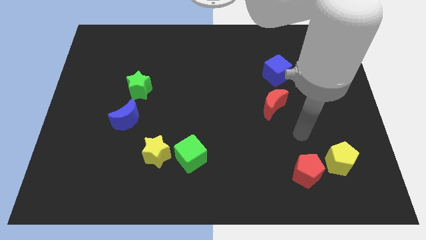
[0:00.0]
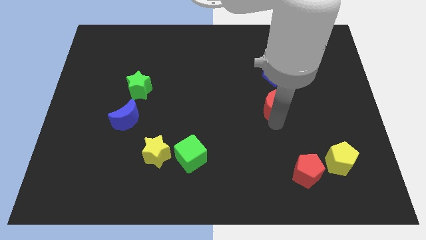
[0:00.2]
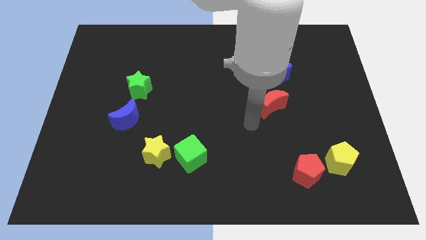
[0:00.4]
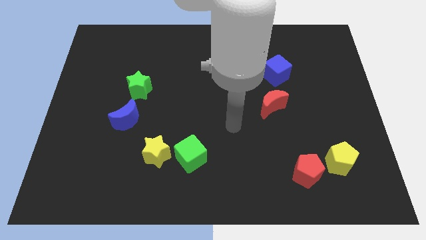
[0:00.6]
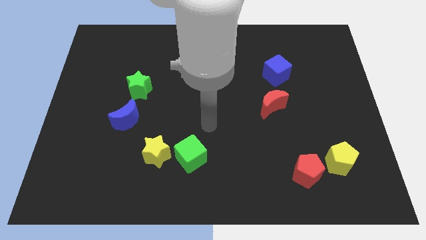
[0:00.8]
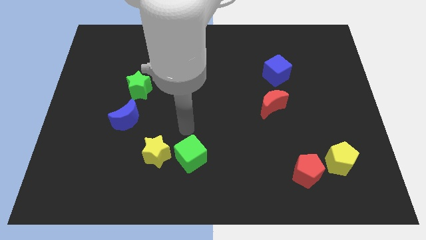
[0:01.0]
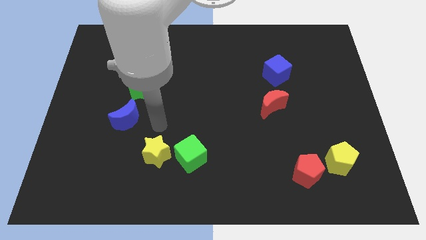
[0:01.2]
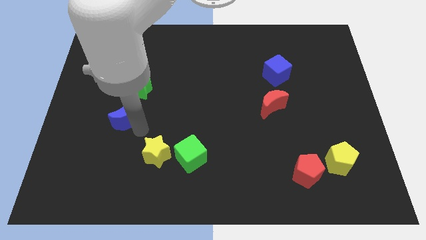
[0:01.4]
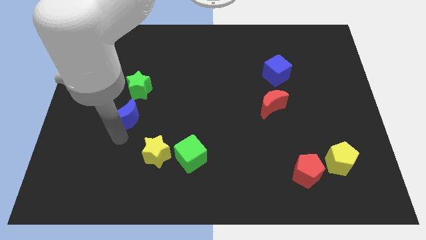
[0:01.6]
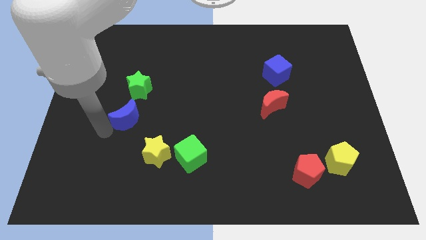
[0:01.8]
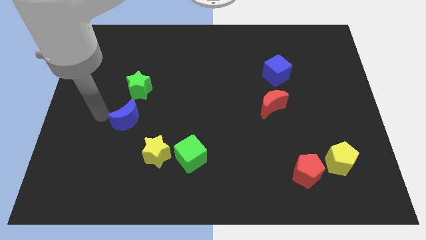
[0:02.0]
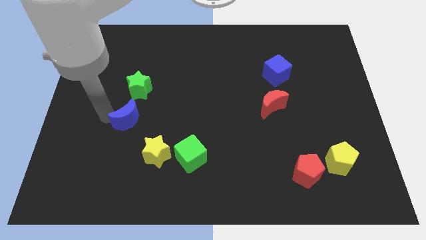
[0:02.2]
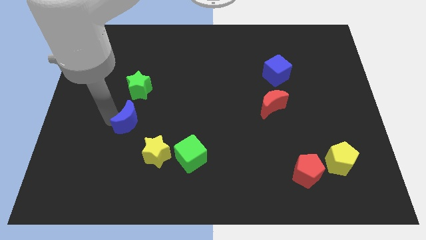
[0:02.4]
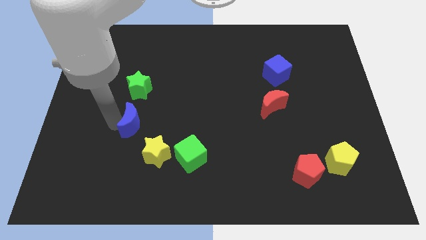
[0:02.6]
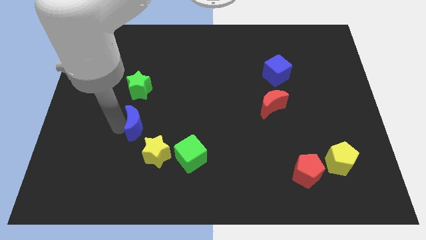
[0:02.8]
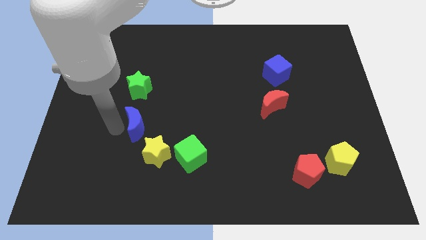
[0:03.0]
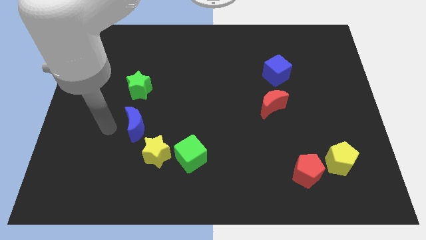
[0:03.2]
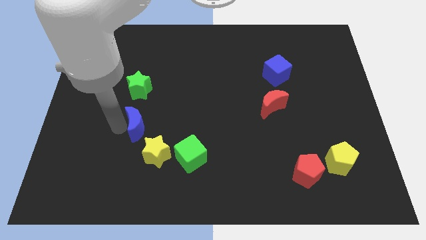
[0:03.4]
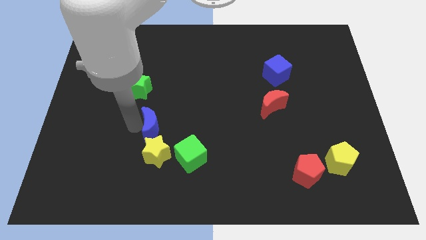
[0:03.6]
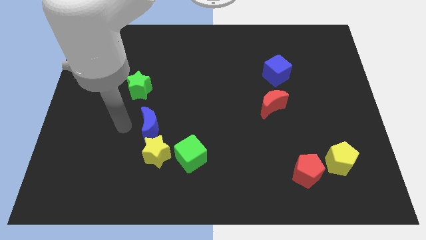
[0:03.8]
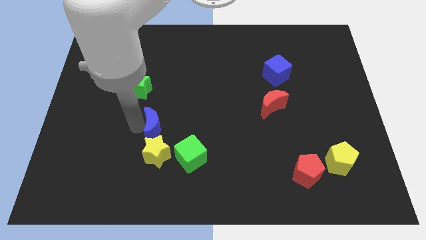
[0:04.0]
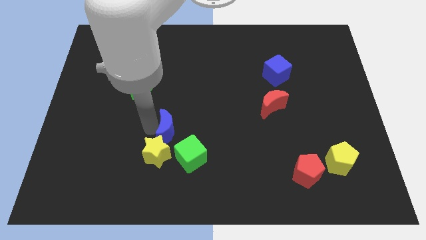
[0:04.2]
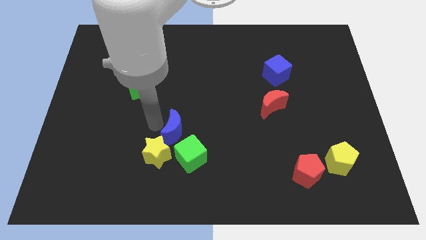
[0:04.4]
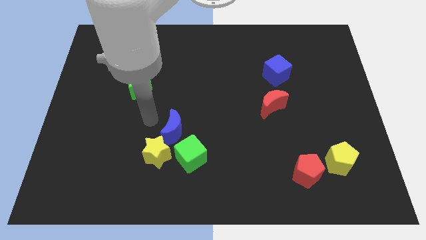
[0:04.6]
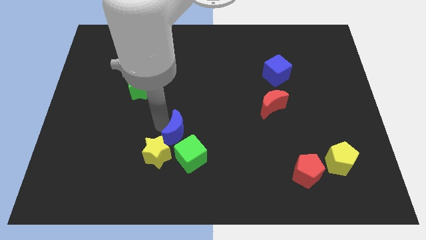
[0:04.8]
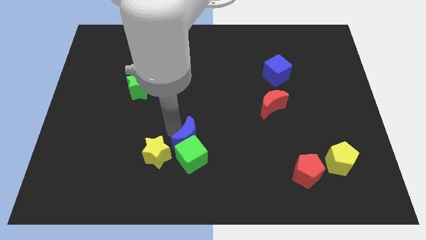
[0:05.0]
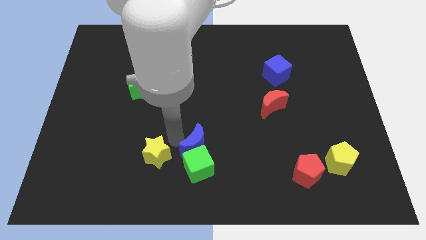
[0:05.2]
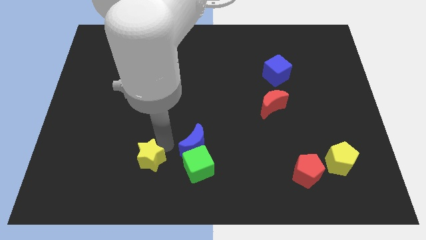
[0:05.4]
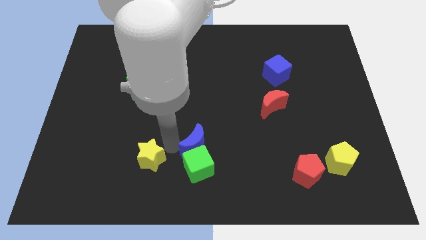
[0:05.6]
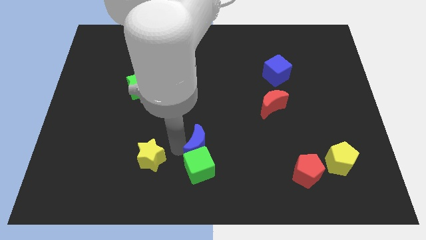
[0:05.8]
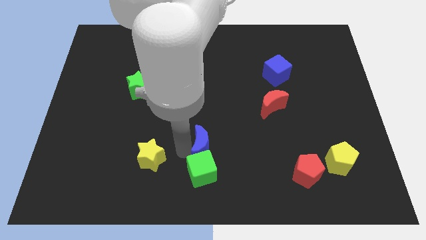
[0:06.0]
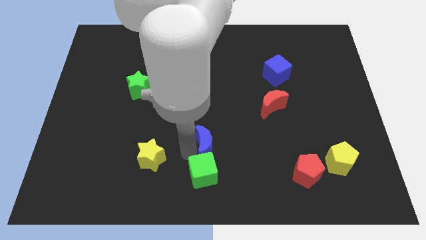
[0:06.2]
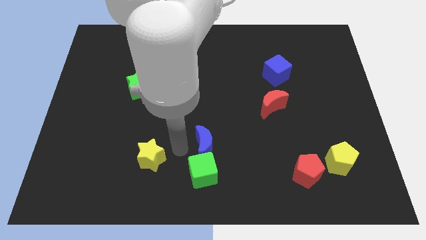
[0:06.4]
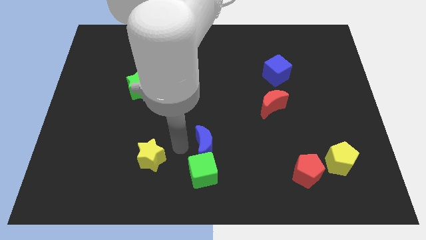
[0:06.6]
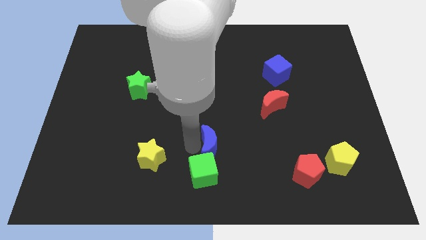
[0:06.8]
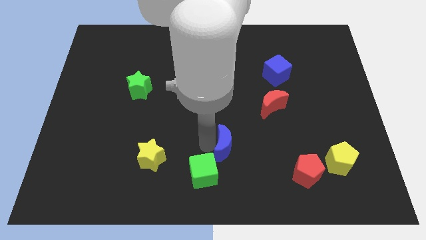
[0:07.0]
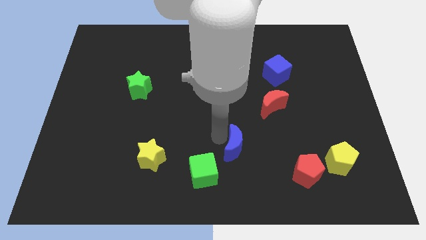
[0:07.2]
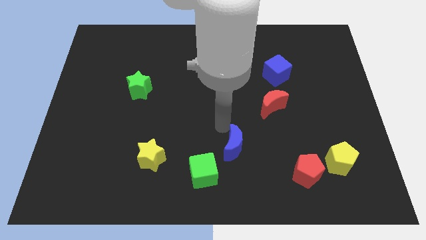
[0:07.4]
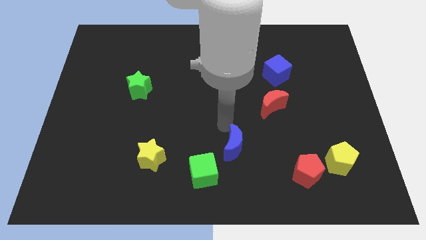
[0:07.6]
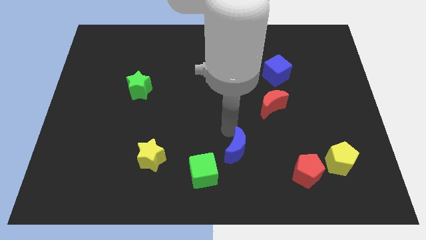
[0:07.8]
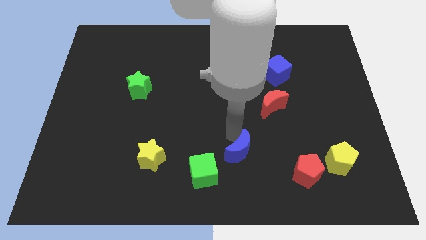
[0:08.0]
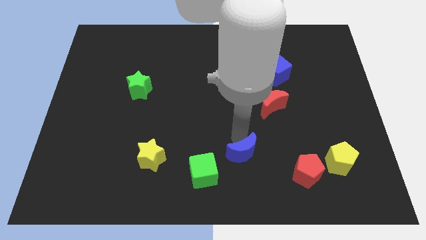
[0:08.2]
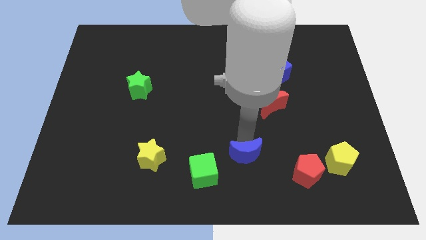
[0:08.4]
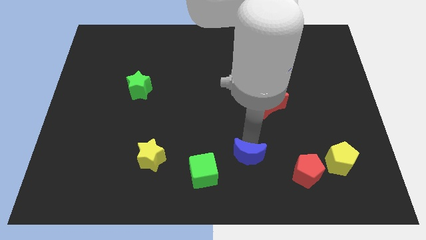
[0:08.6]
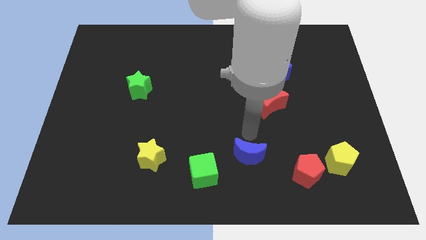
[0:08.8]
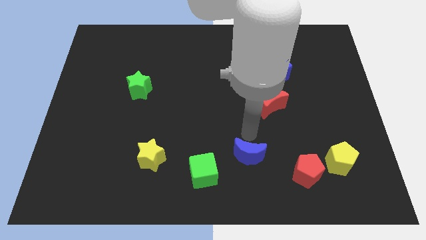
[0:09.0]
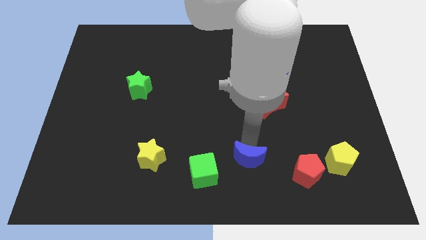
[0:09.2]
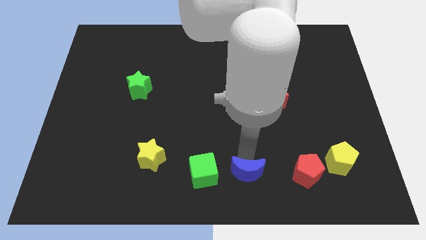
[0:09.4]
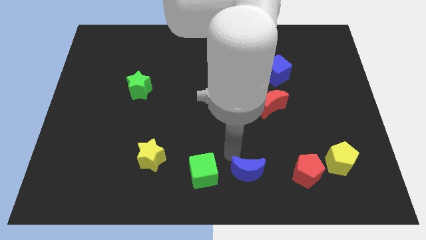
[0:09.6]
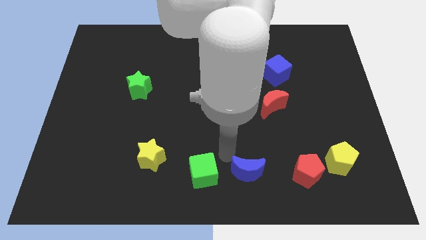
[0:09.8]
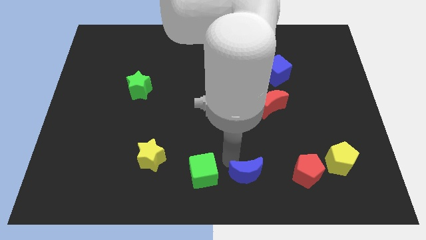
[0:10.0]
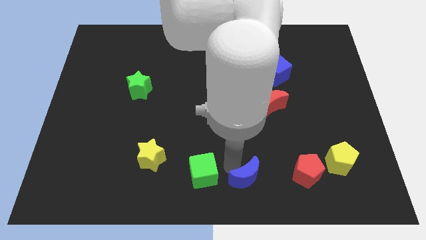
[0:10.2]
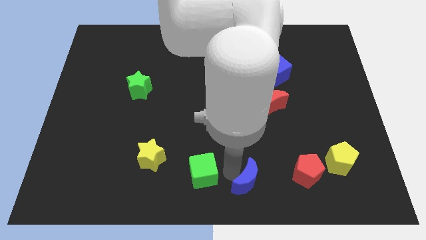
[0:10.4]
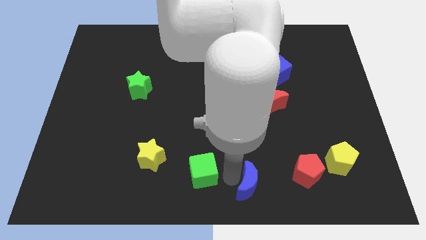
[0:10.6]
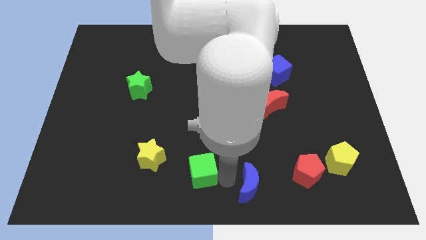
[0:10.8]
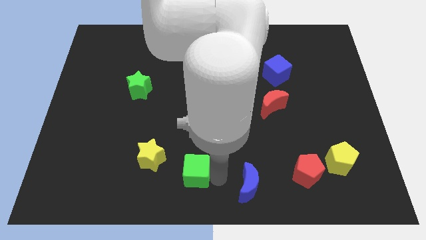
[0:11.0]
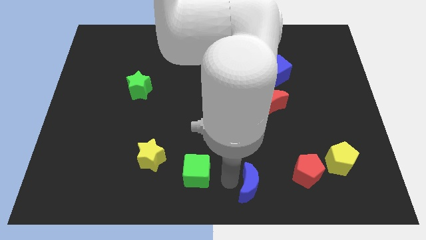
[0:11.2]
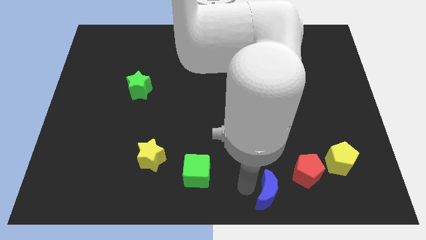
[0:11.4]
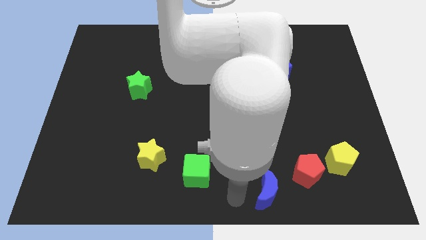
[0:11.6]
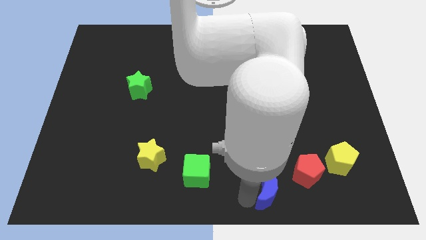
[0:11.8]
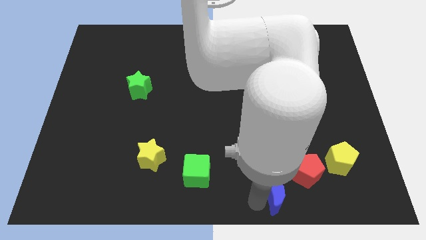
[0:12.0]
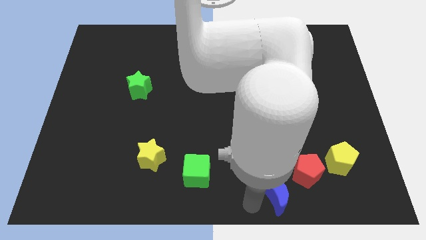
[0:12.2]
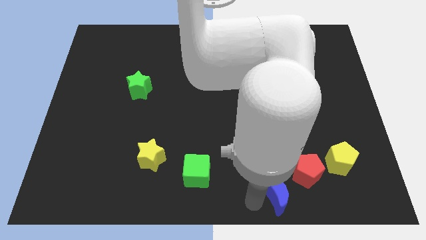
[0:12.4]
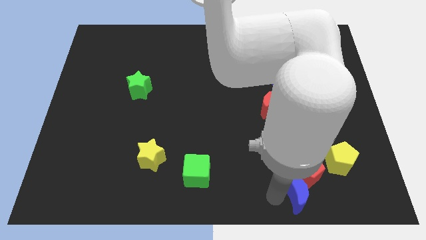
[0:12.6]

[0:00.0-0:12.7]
push the blue moon to the bottom left side of the yellow pentagon
